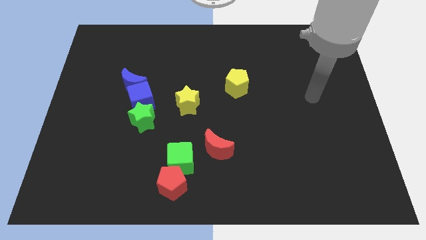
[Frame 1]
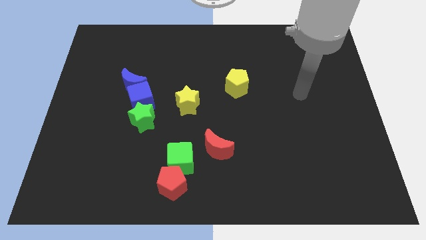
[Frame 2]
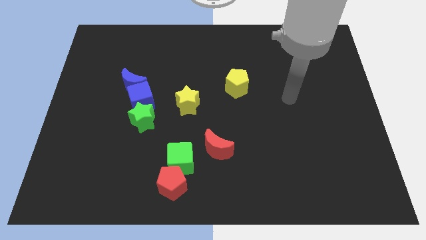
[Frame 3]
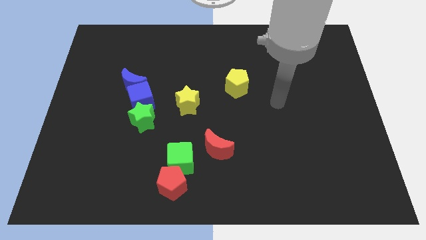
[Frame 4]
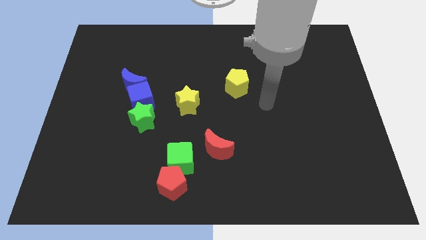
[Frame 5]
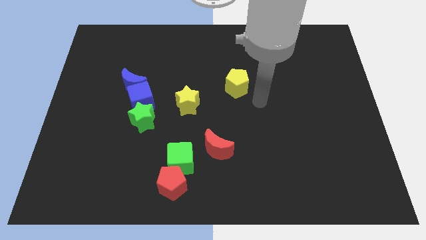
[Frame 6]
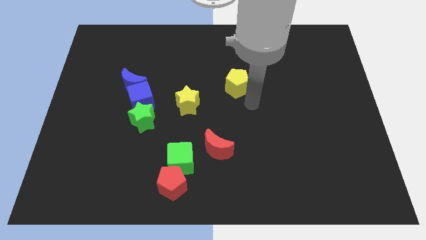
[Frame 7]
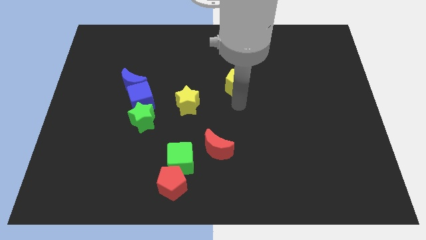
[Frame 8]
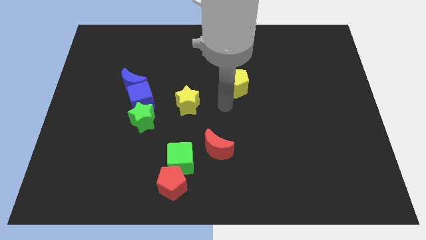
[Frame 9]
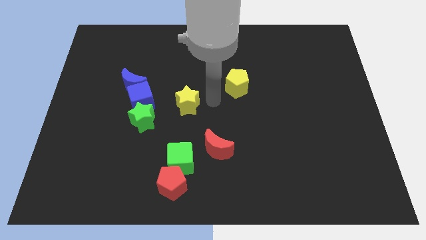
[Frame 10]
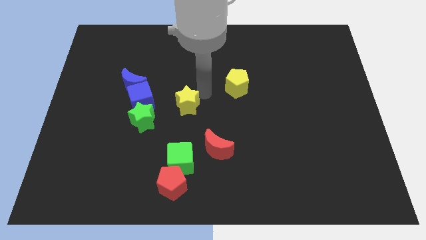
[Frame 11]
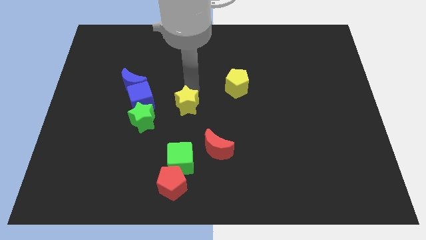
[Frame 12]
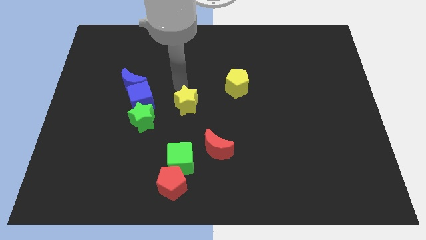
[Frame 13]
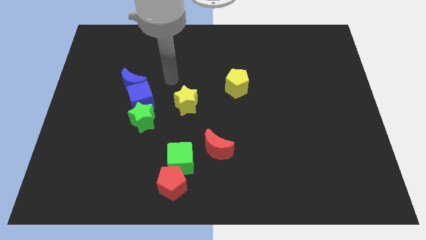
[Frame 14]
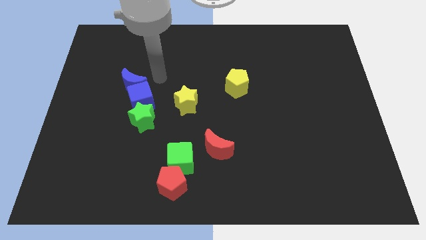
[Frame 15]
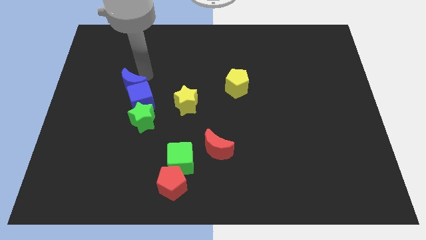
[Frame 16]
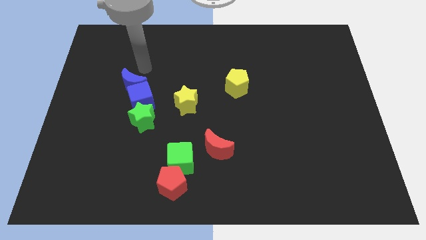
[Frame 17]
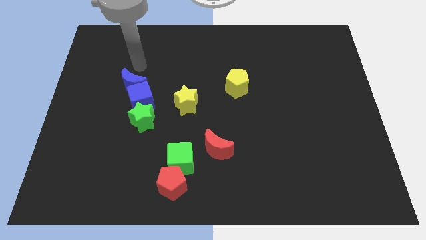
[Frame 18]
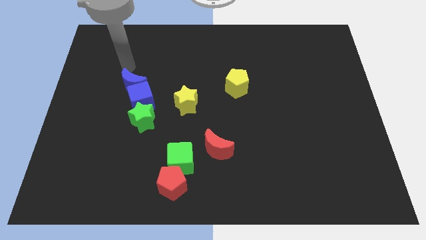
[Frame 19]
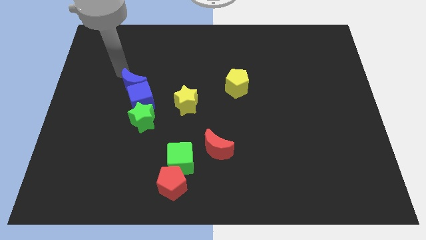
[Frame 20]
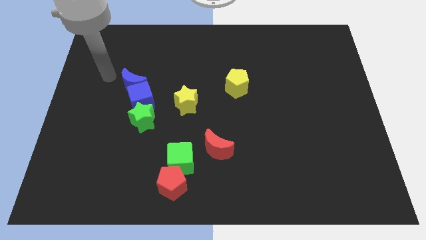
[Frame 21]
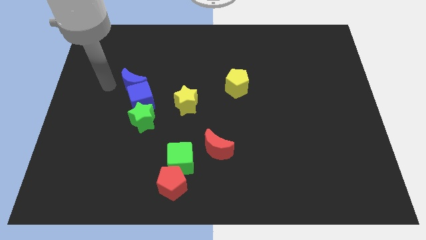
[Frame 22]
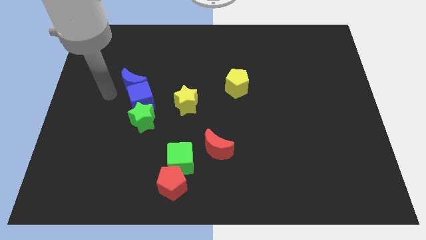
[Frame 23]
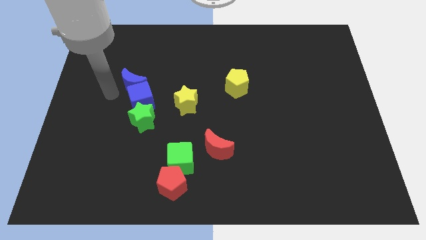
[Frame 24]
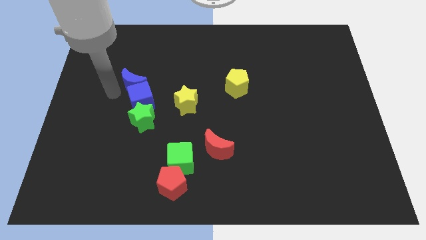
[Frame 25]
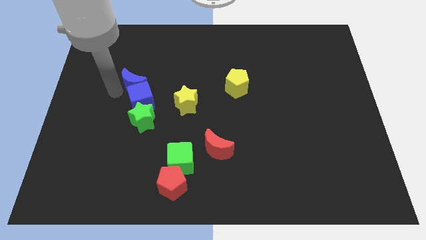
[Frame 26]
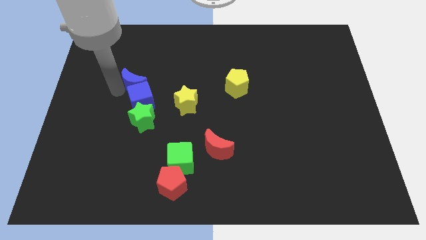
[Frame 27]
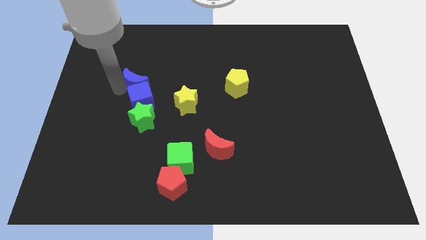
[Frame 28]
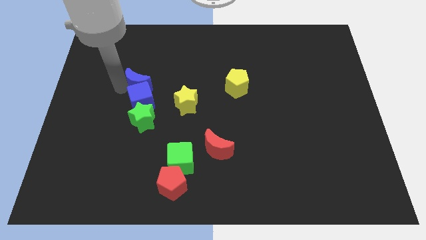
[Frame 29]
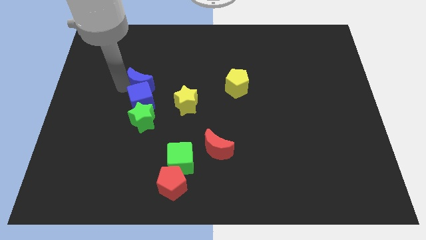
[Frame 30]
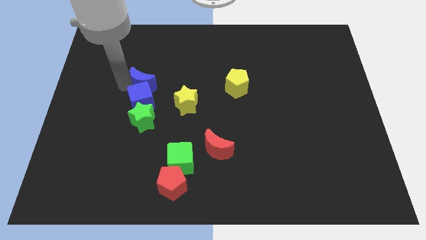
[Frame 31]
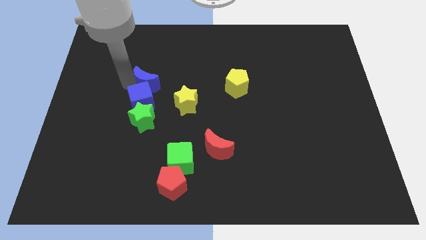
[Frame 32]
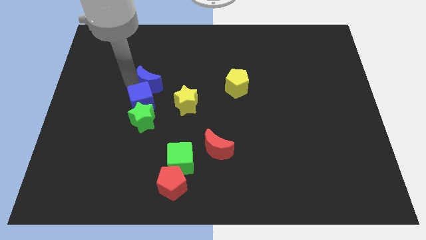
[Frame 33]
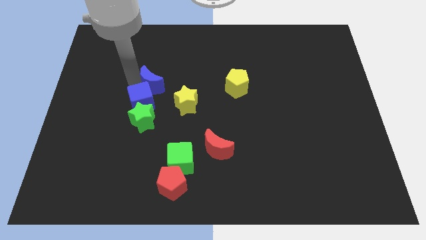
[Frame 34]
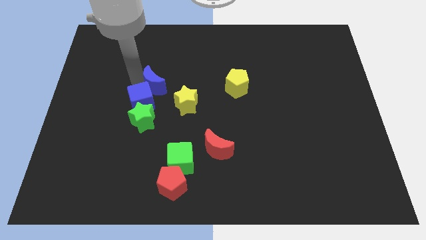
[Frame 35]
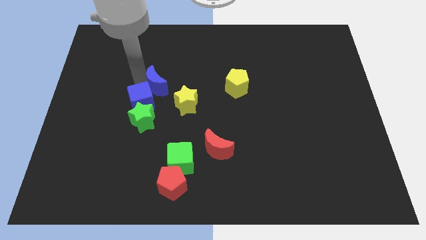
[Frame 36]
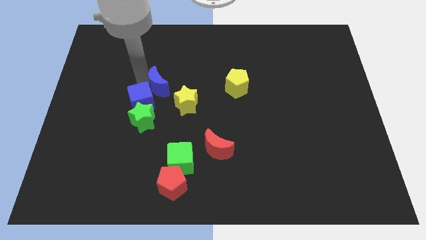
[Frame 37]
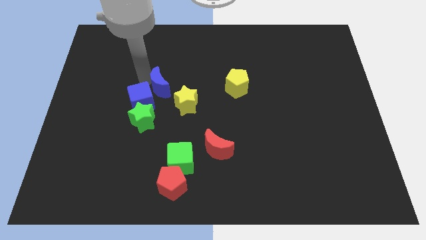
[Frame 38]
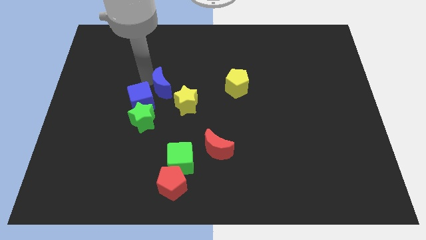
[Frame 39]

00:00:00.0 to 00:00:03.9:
push the blue moon somewhat right

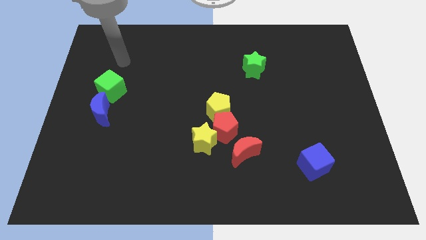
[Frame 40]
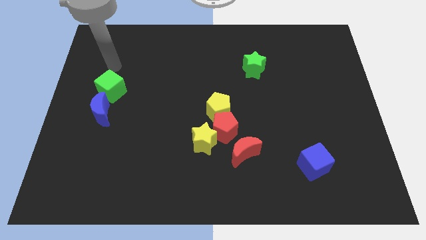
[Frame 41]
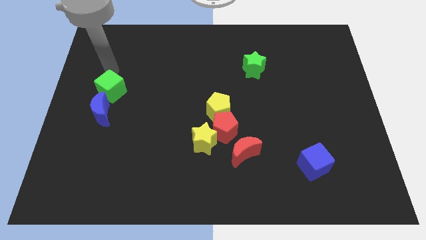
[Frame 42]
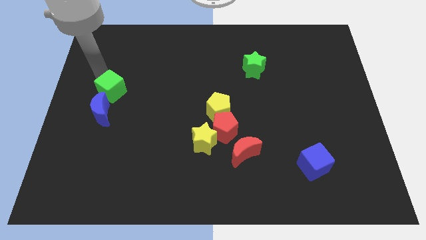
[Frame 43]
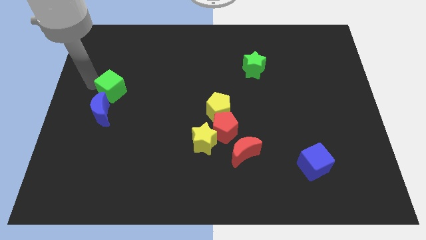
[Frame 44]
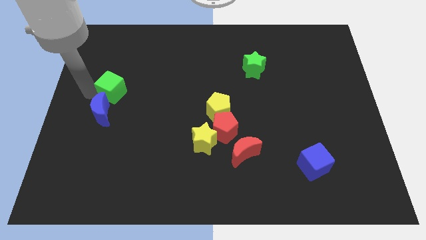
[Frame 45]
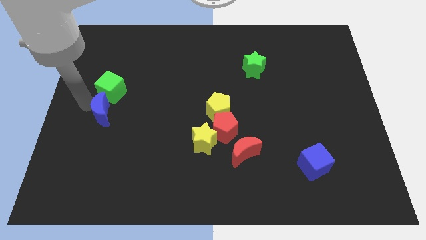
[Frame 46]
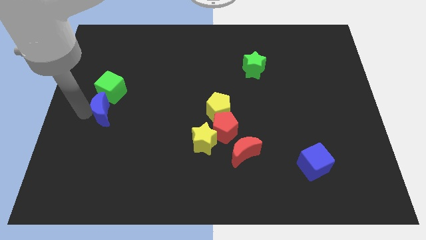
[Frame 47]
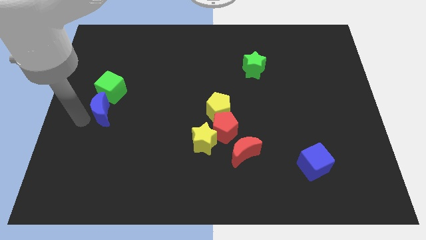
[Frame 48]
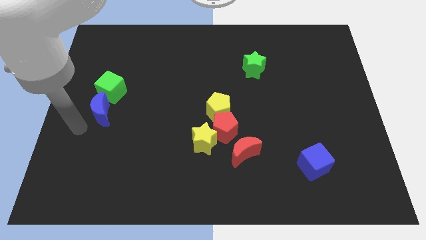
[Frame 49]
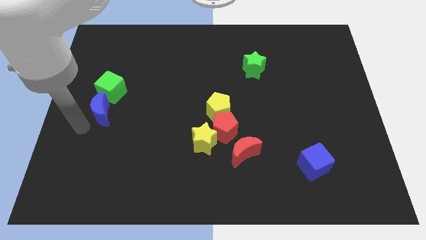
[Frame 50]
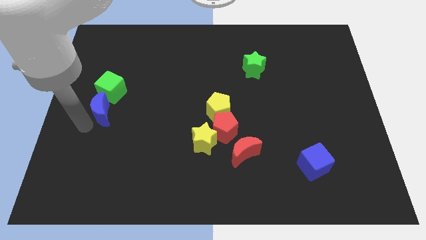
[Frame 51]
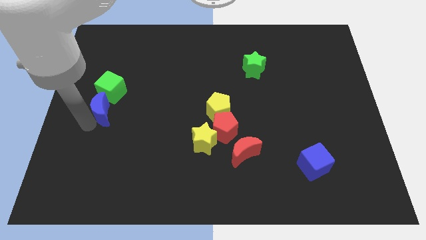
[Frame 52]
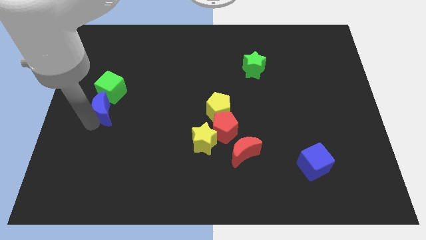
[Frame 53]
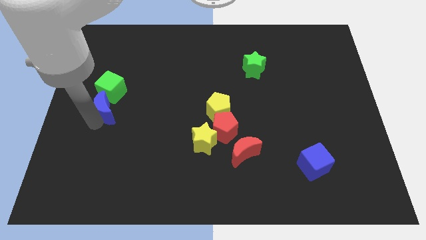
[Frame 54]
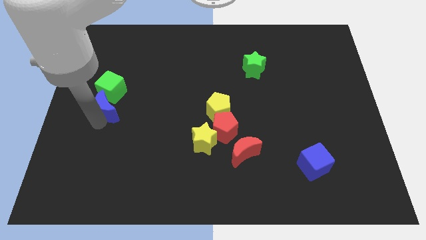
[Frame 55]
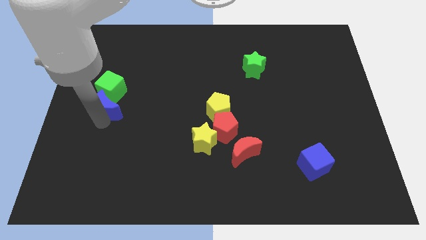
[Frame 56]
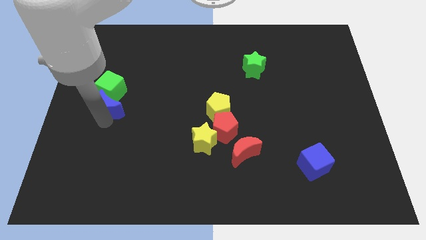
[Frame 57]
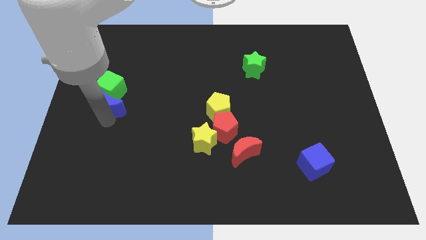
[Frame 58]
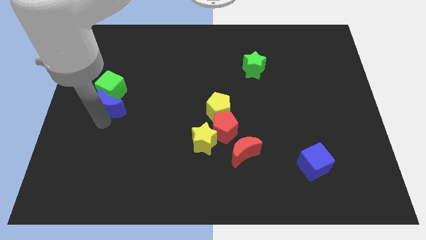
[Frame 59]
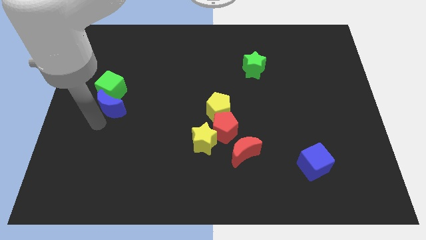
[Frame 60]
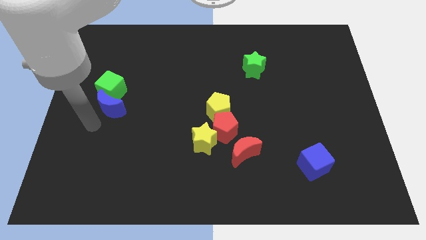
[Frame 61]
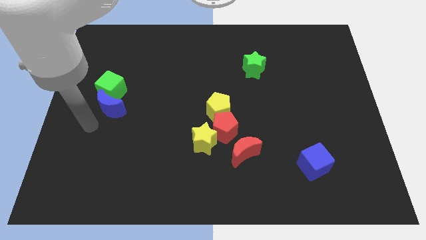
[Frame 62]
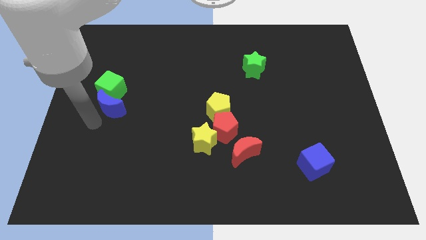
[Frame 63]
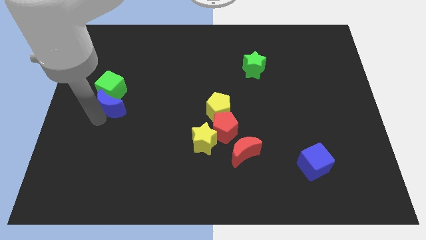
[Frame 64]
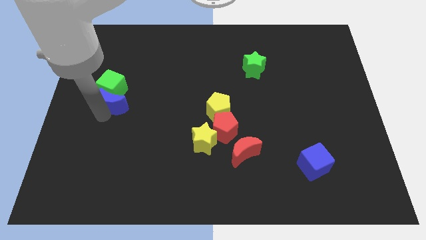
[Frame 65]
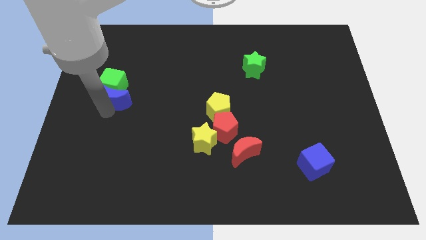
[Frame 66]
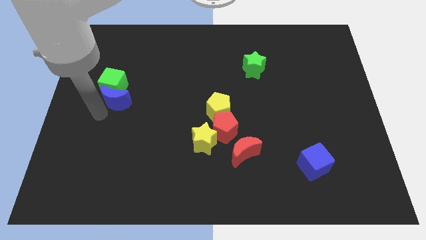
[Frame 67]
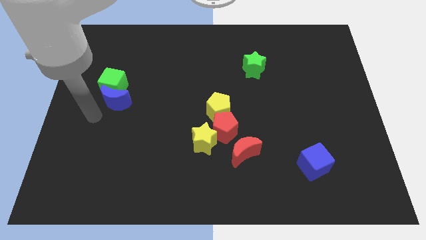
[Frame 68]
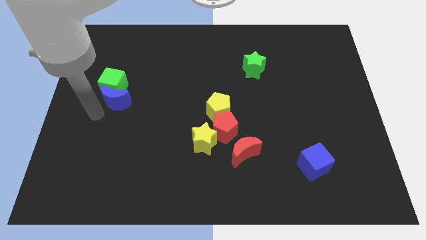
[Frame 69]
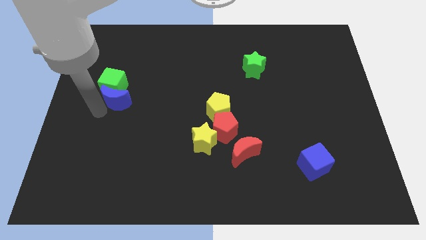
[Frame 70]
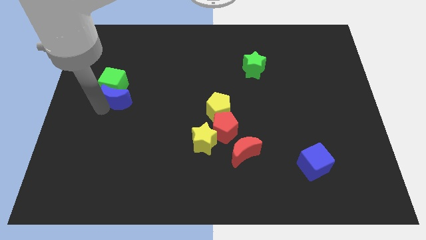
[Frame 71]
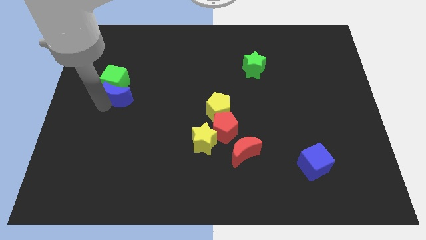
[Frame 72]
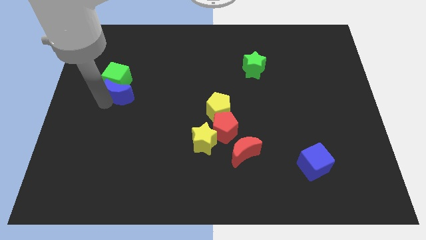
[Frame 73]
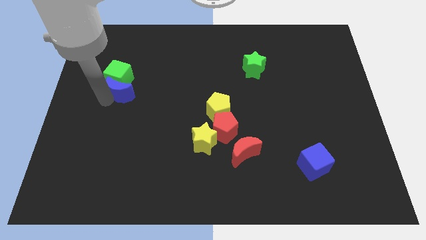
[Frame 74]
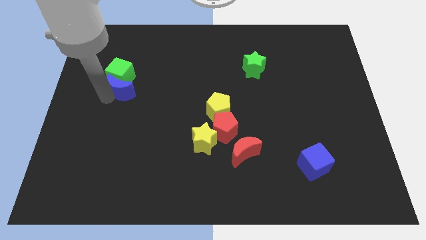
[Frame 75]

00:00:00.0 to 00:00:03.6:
push the blue moon up and then to the right a little

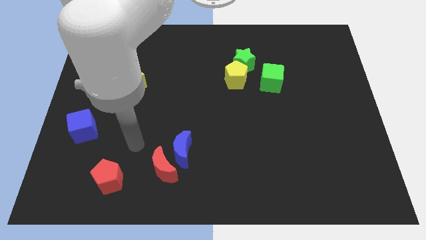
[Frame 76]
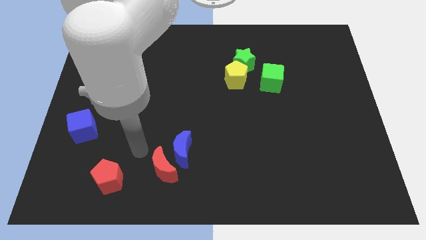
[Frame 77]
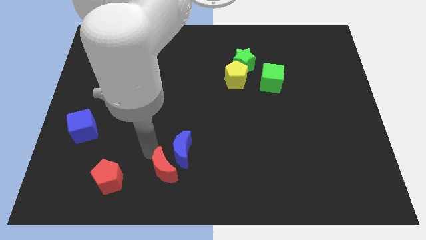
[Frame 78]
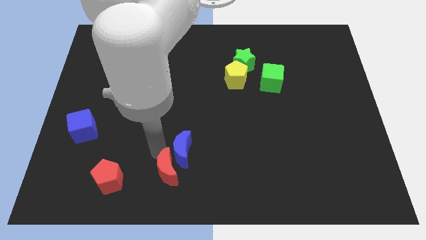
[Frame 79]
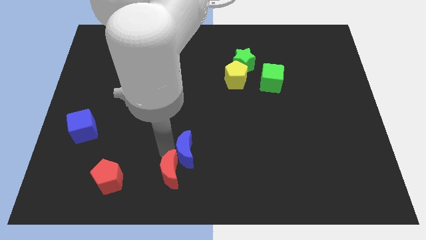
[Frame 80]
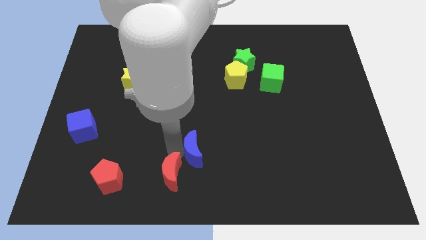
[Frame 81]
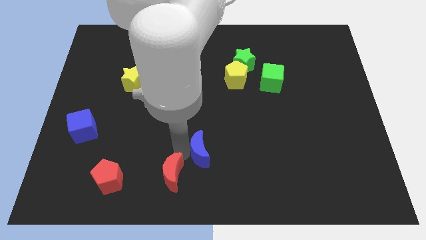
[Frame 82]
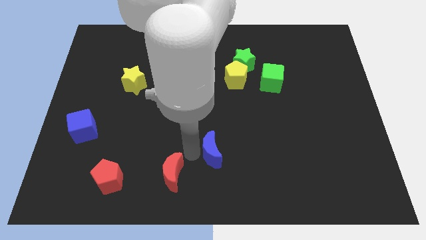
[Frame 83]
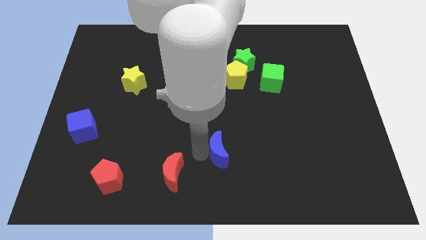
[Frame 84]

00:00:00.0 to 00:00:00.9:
slide the blue moon right somewhat
